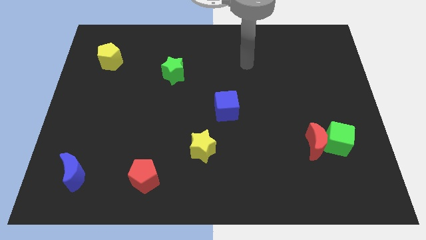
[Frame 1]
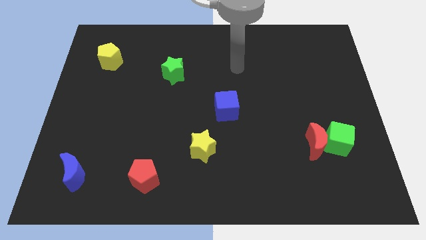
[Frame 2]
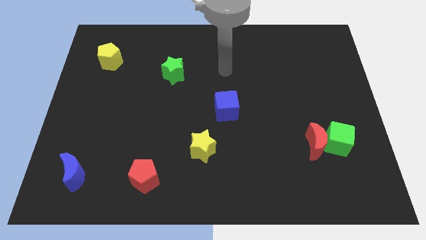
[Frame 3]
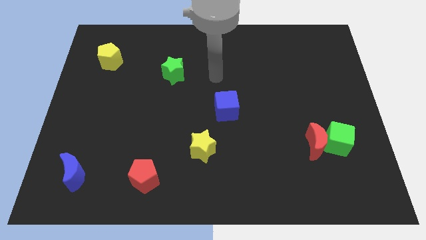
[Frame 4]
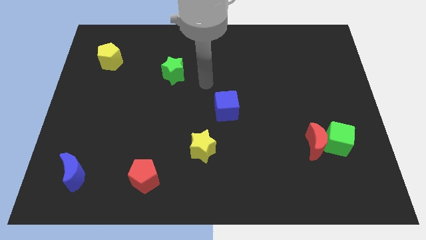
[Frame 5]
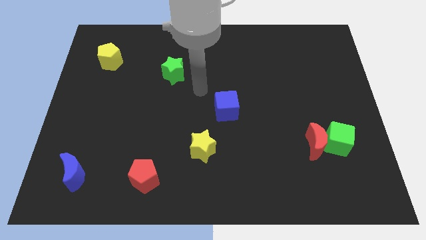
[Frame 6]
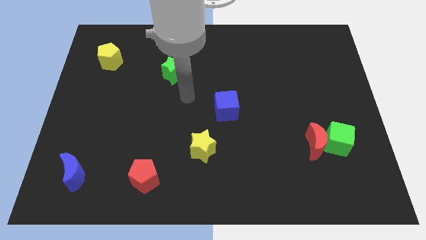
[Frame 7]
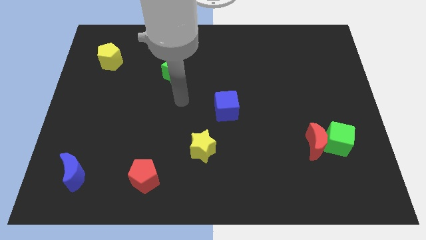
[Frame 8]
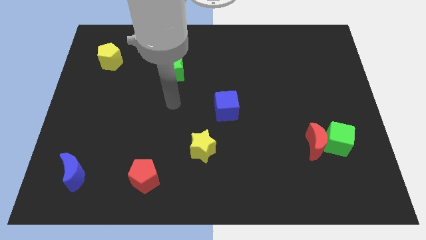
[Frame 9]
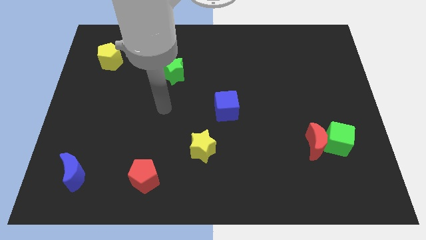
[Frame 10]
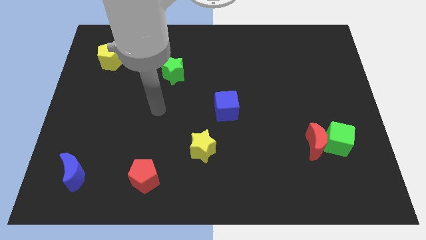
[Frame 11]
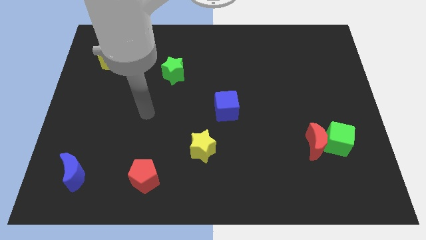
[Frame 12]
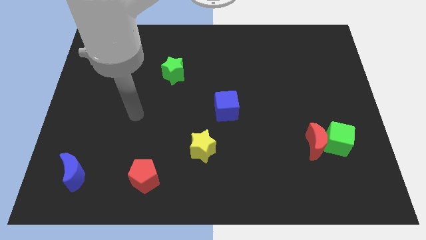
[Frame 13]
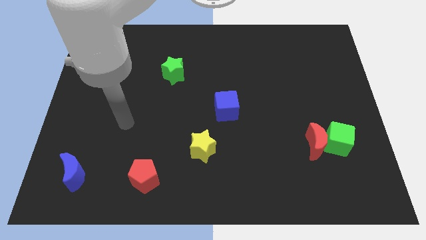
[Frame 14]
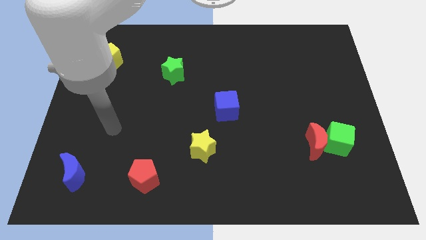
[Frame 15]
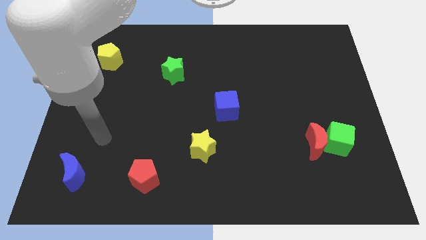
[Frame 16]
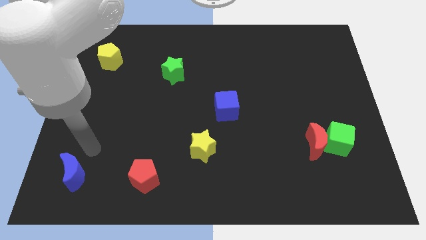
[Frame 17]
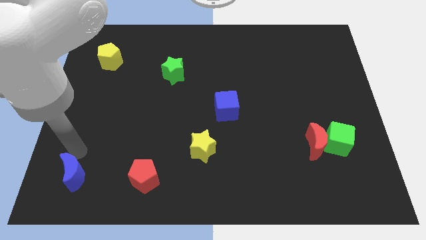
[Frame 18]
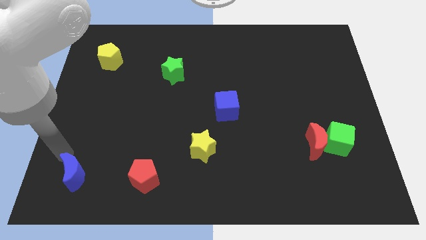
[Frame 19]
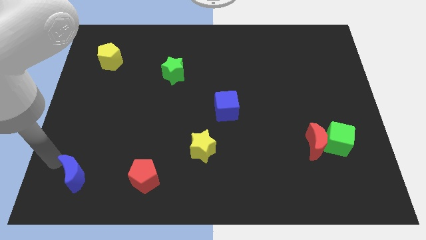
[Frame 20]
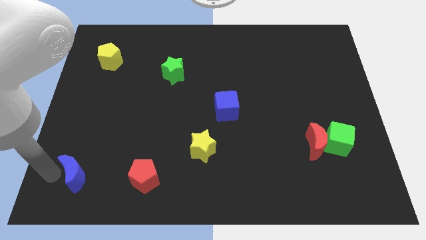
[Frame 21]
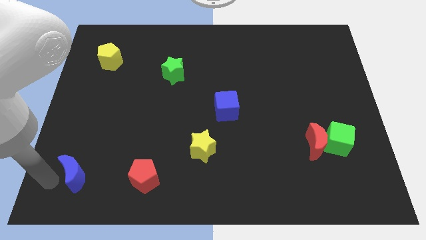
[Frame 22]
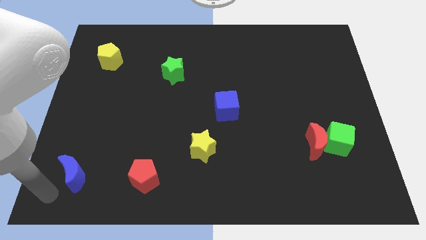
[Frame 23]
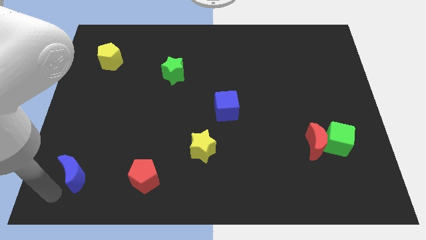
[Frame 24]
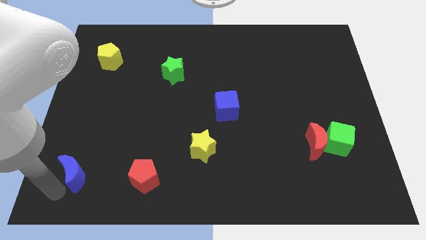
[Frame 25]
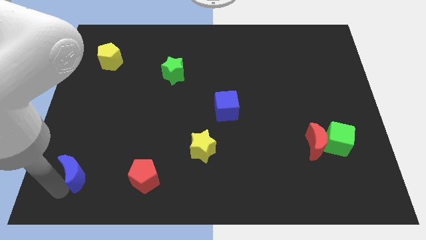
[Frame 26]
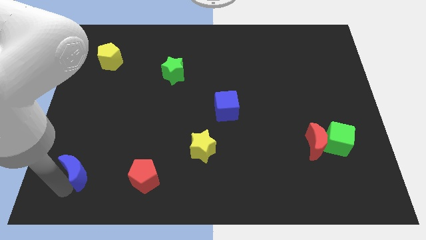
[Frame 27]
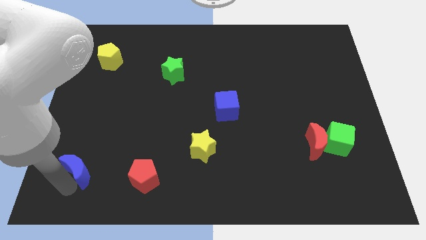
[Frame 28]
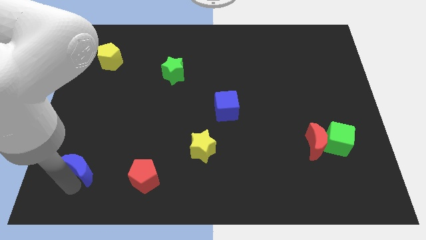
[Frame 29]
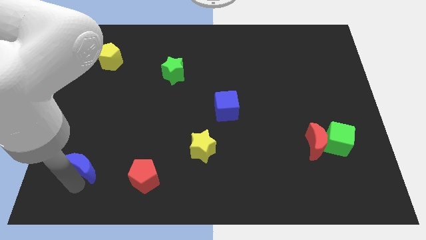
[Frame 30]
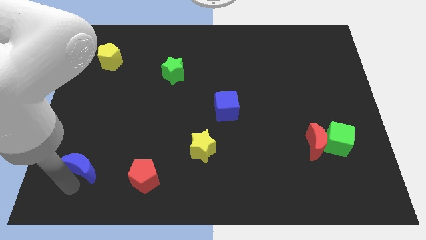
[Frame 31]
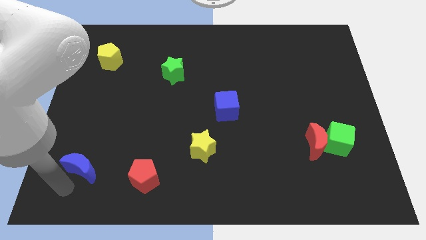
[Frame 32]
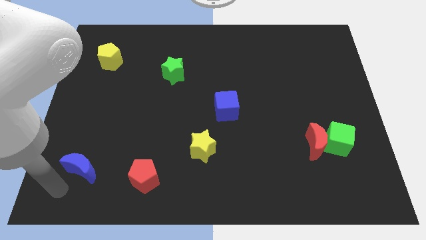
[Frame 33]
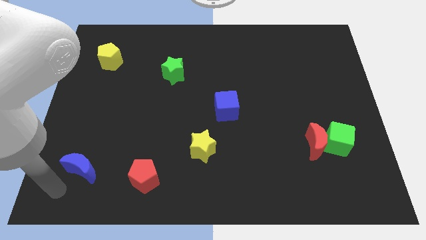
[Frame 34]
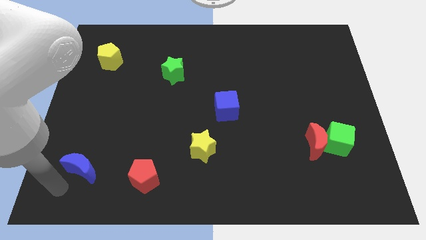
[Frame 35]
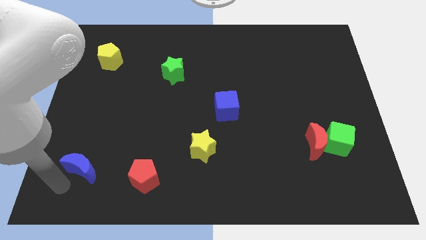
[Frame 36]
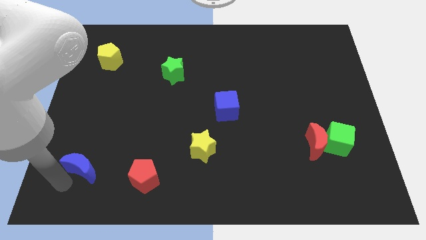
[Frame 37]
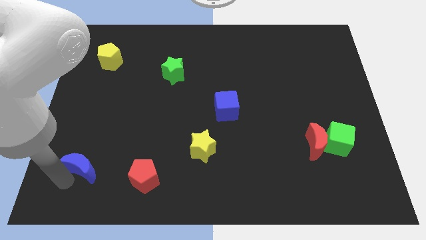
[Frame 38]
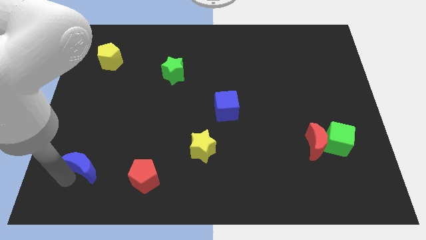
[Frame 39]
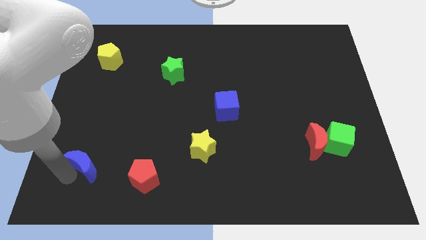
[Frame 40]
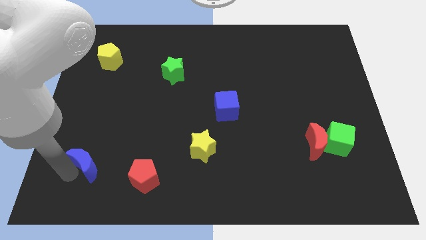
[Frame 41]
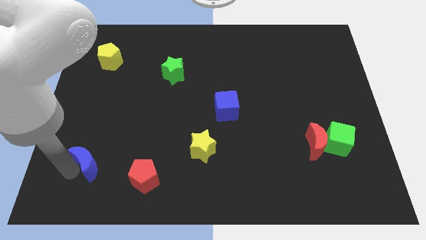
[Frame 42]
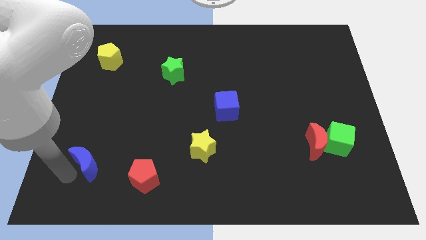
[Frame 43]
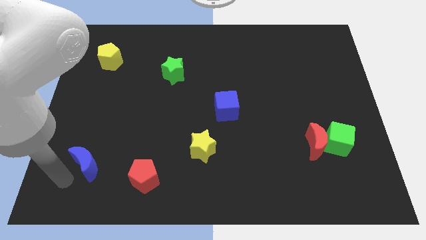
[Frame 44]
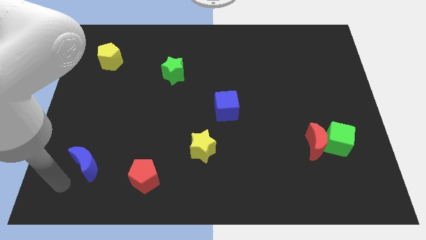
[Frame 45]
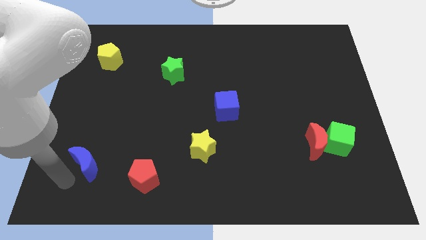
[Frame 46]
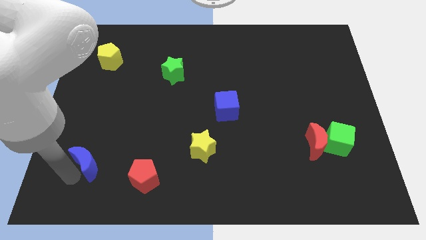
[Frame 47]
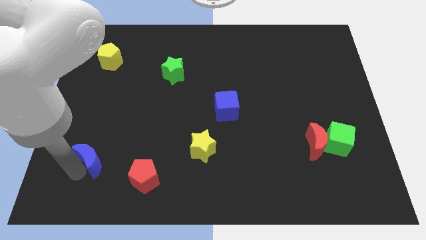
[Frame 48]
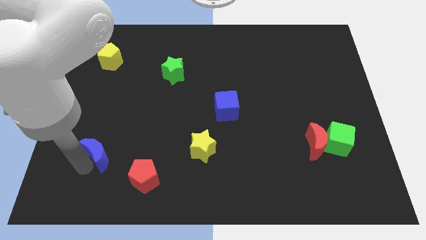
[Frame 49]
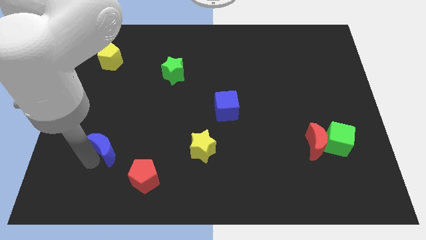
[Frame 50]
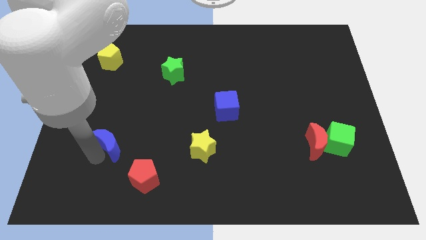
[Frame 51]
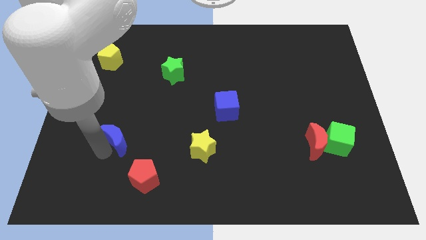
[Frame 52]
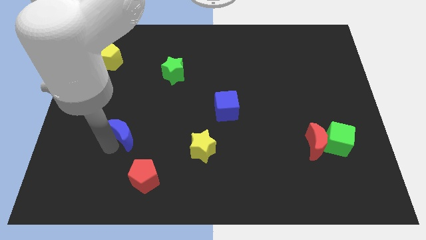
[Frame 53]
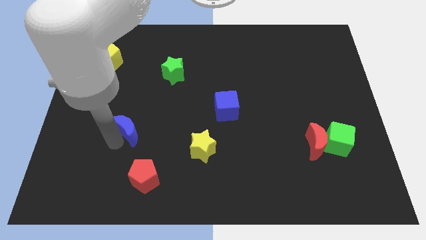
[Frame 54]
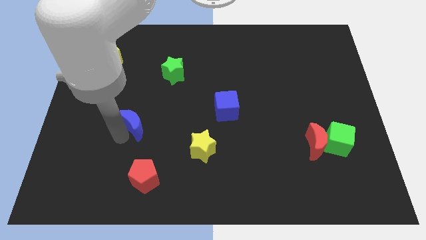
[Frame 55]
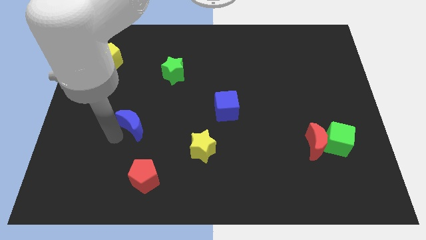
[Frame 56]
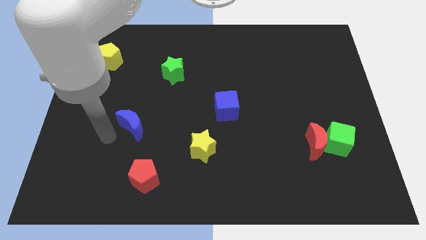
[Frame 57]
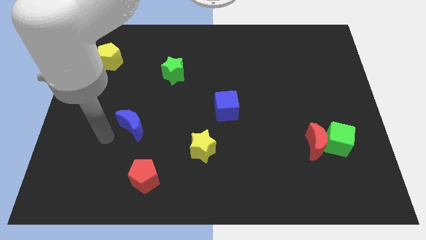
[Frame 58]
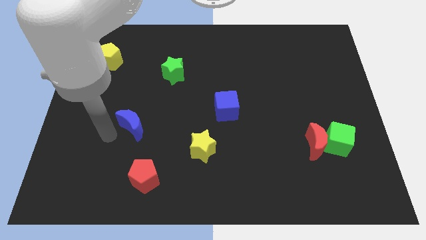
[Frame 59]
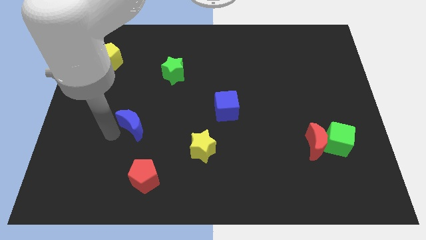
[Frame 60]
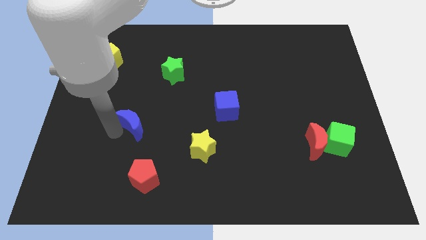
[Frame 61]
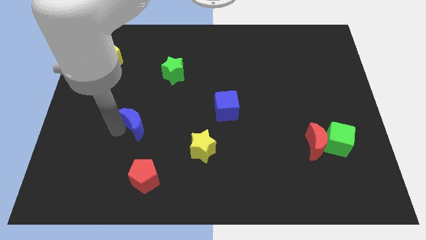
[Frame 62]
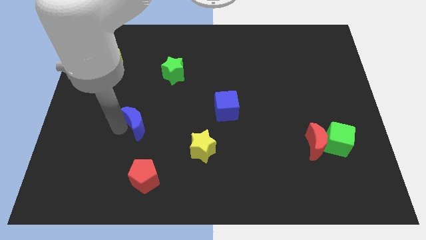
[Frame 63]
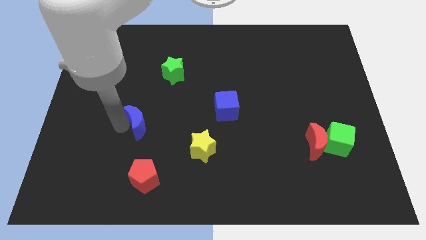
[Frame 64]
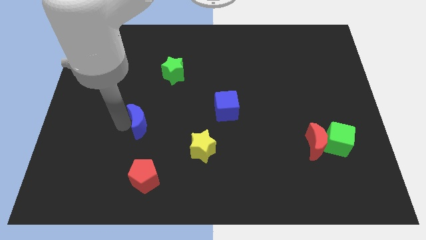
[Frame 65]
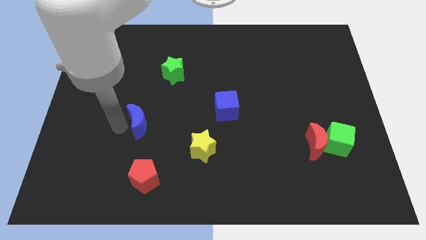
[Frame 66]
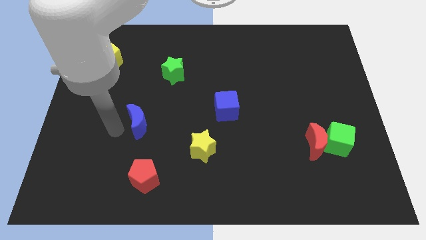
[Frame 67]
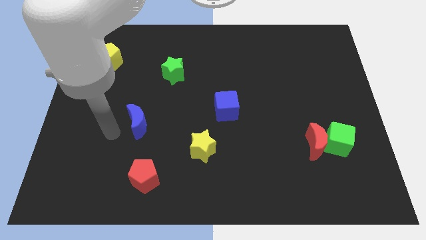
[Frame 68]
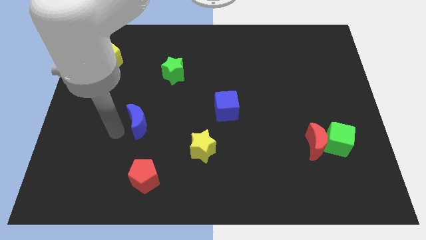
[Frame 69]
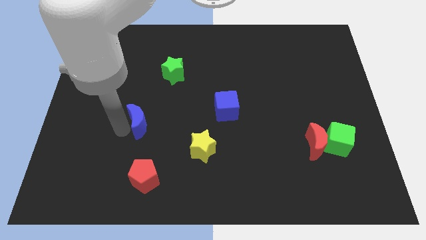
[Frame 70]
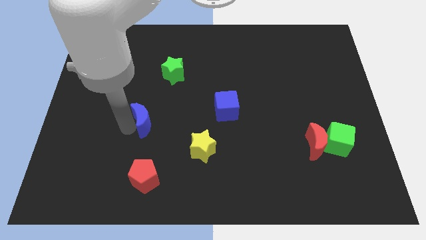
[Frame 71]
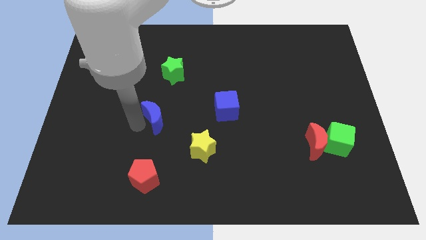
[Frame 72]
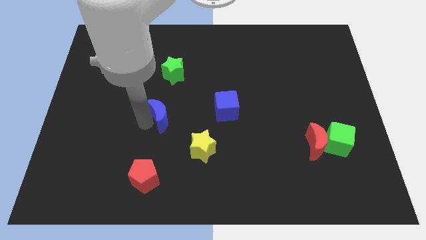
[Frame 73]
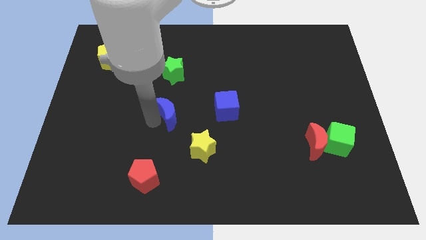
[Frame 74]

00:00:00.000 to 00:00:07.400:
put the blue moon to the middle
